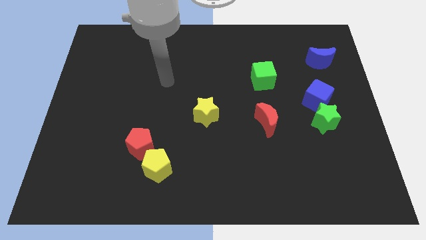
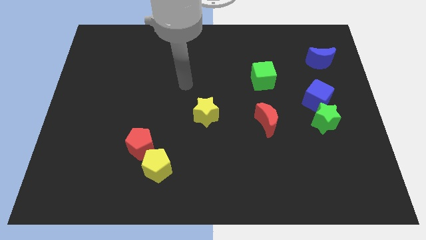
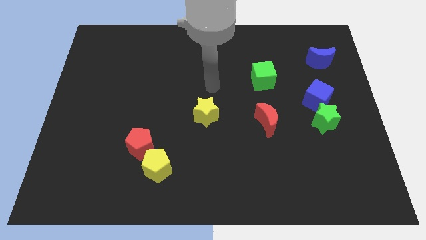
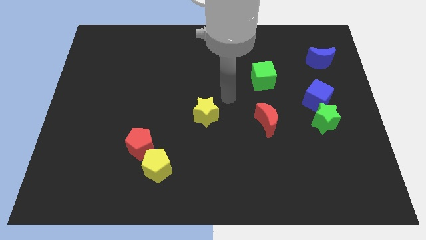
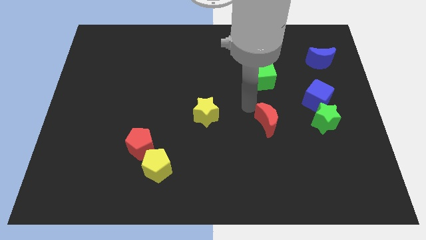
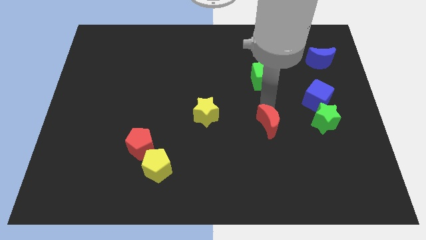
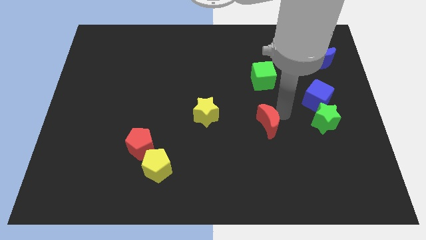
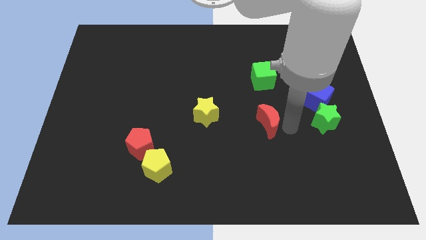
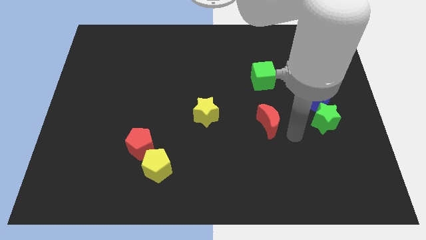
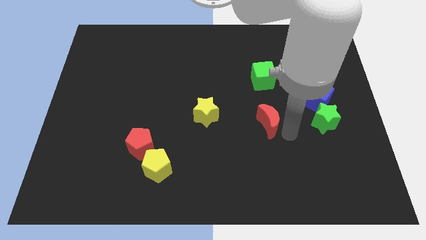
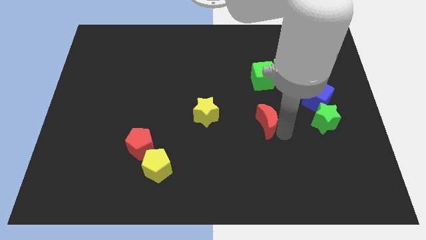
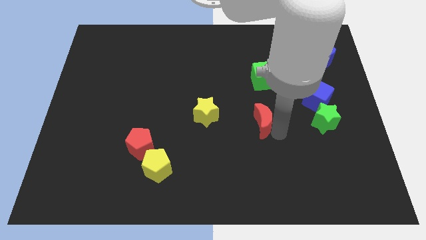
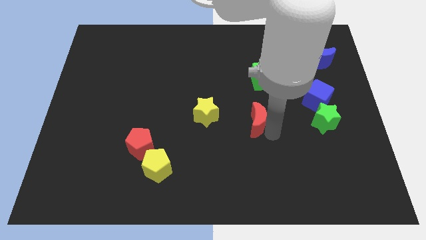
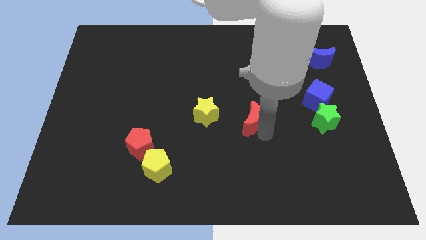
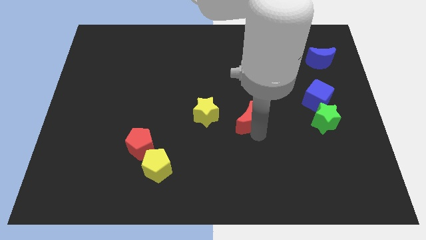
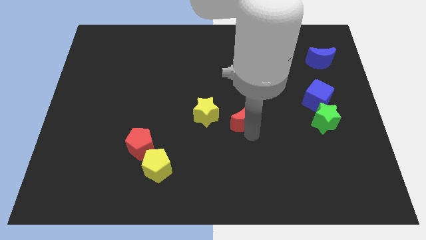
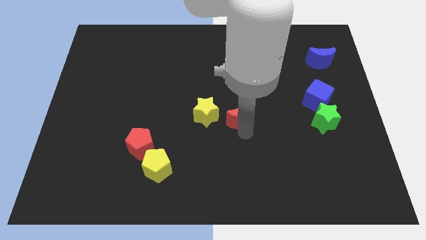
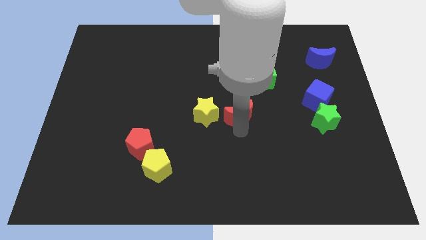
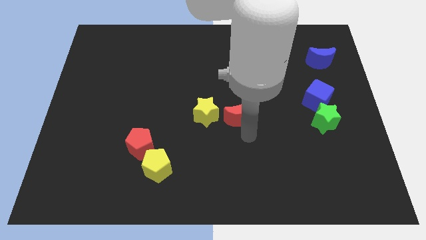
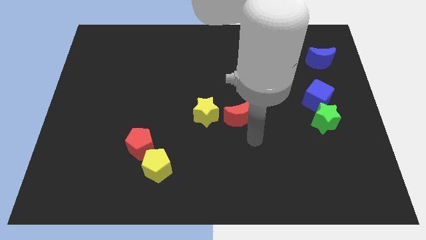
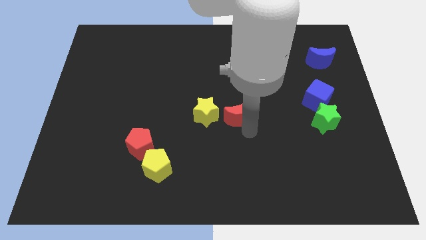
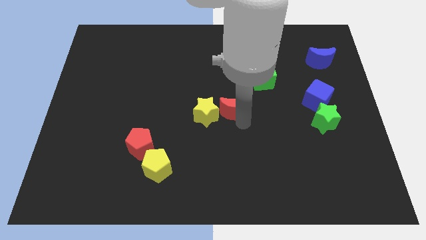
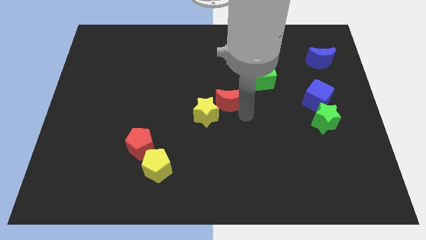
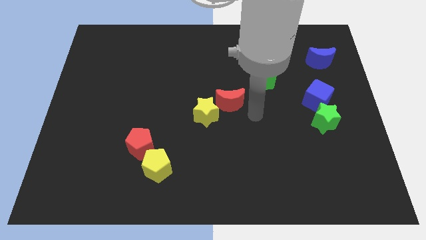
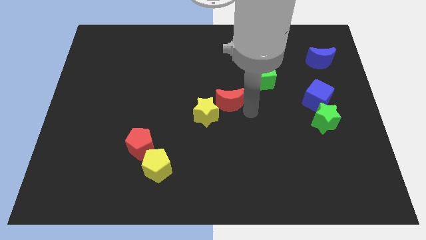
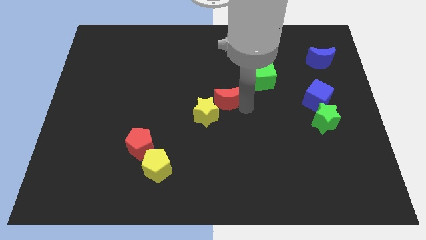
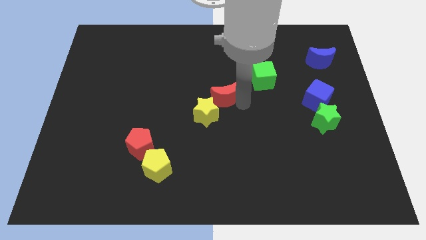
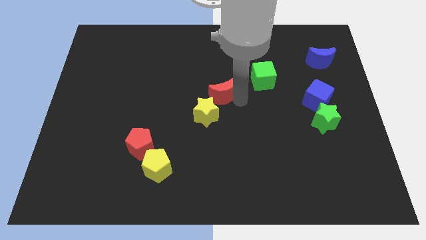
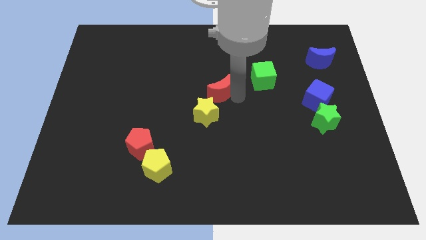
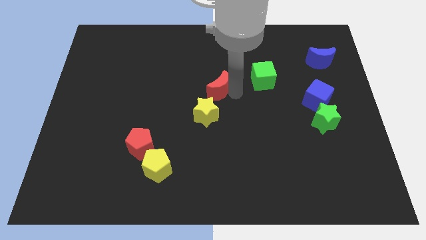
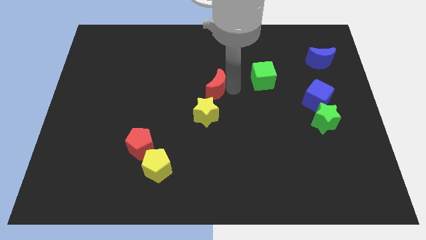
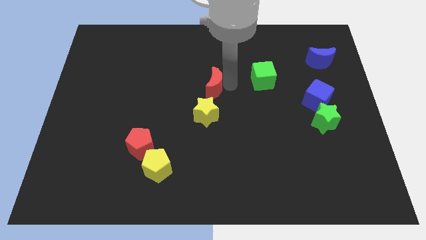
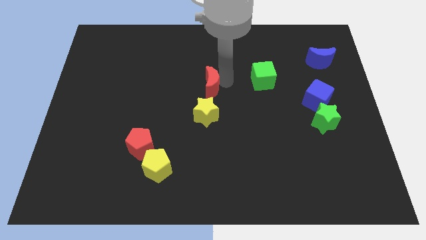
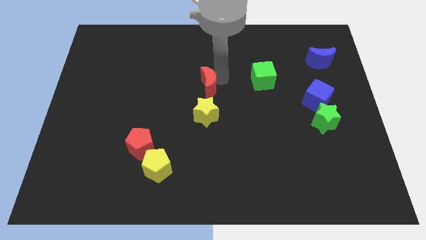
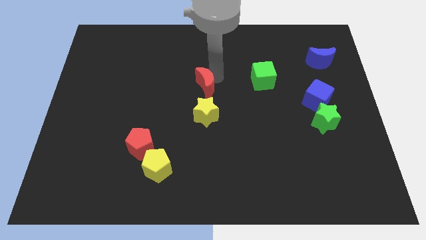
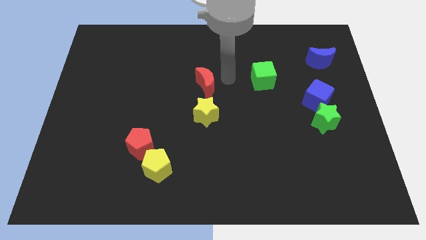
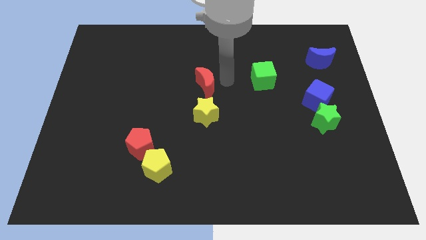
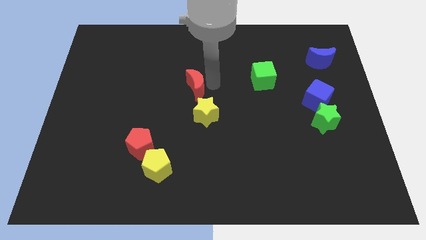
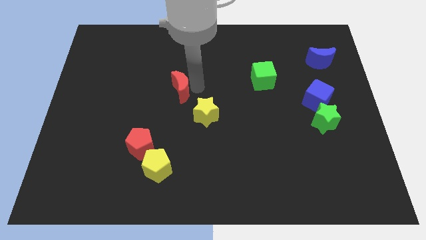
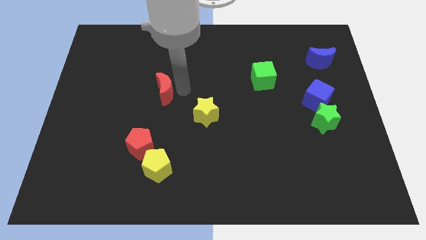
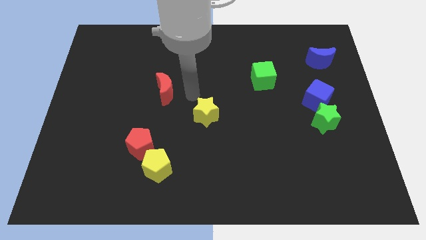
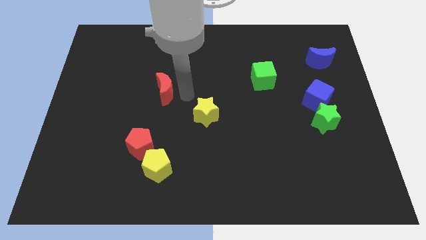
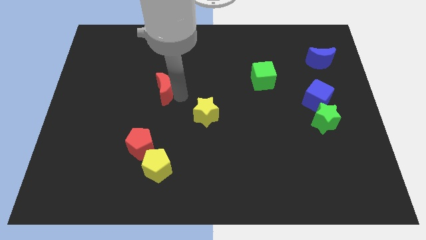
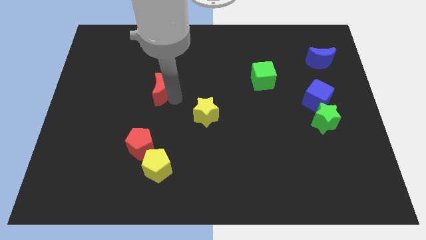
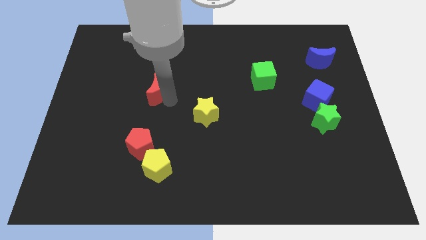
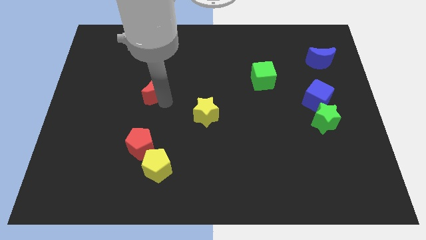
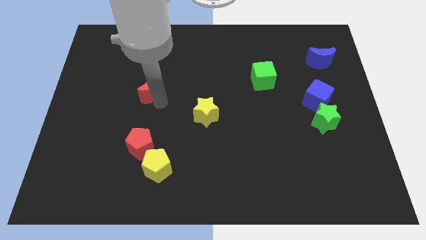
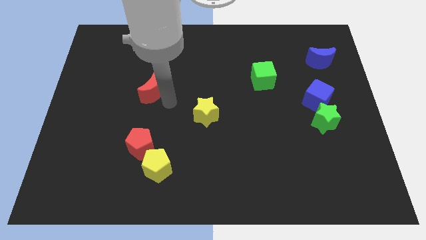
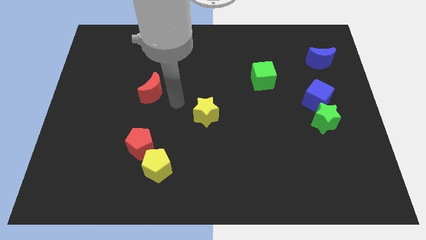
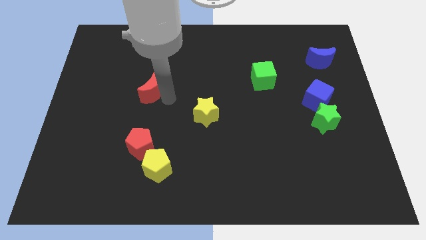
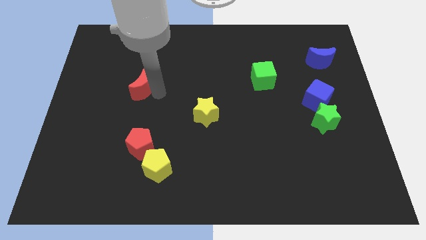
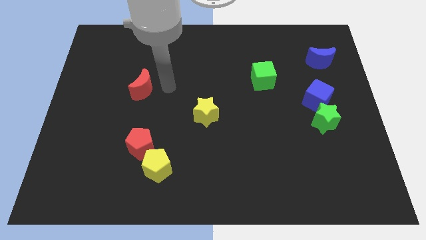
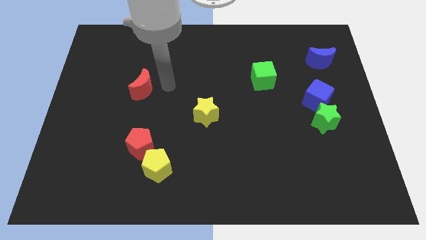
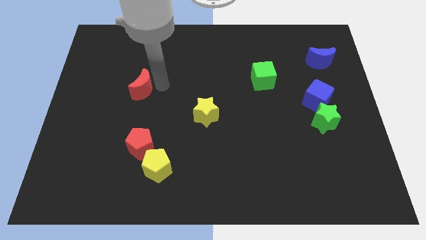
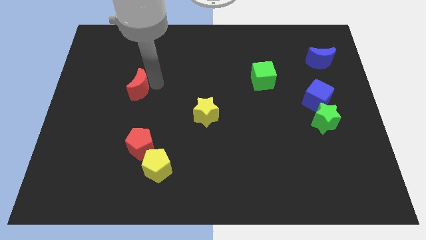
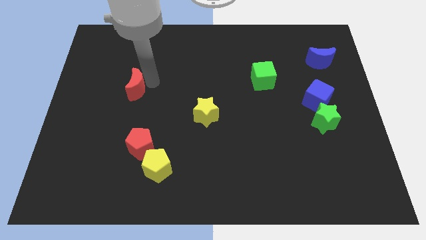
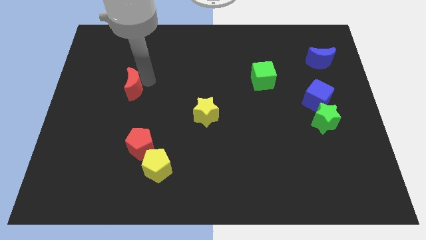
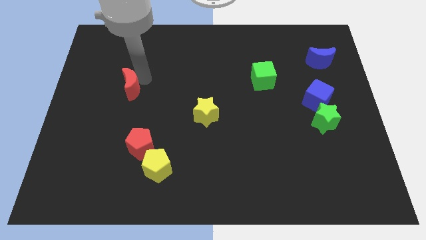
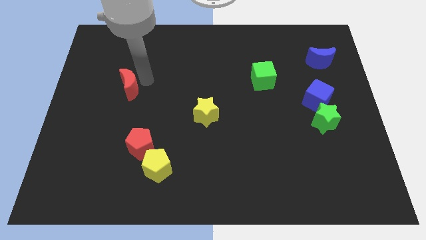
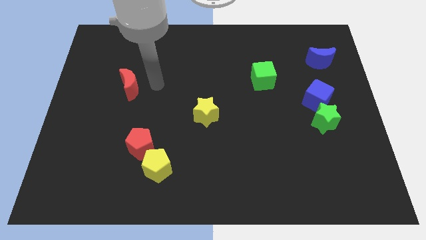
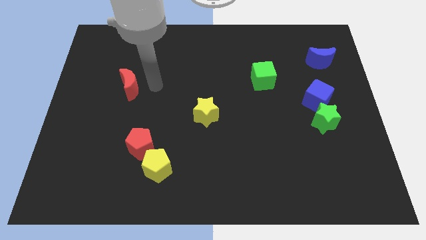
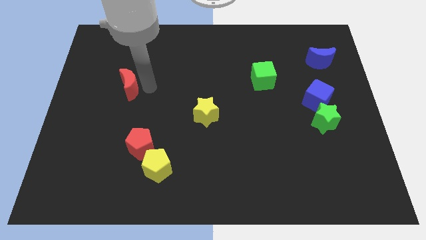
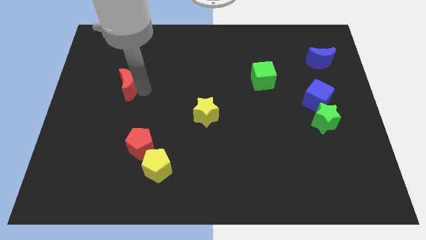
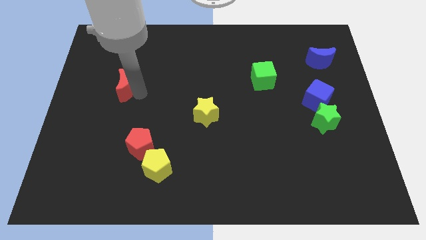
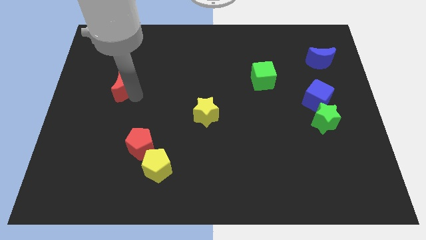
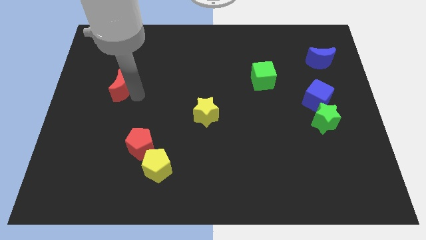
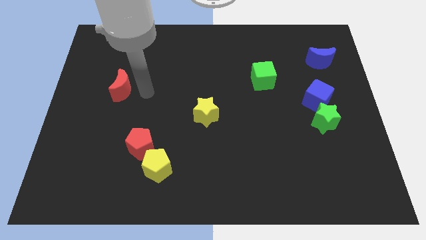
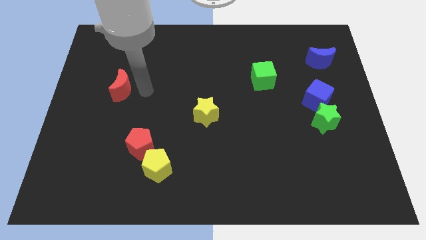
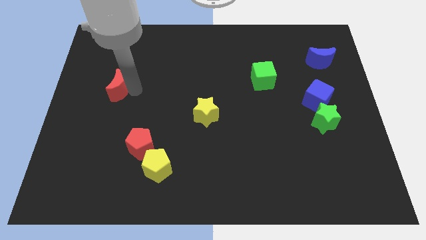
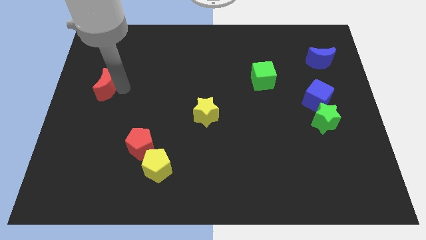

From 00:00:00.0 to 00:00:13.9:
move the red moon to the left side
